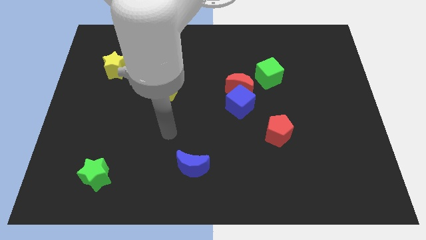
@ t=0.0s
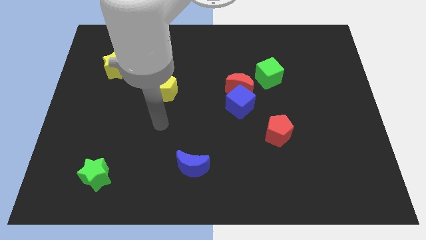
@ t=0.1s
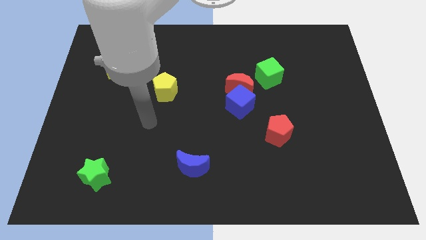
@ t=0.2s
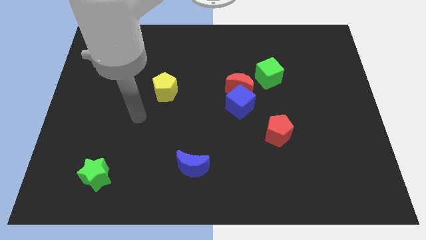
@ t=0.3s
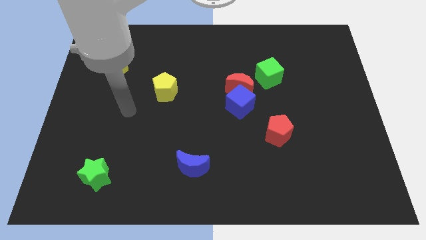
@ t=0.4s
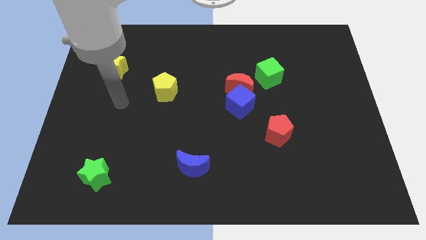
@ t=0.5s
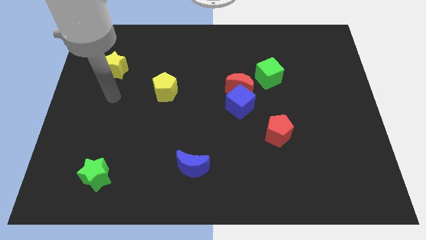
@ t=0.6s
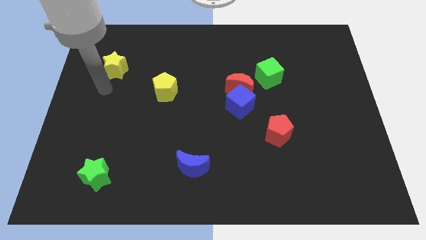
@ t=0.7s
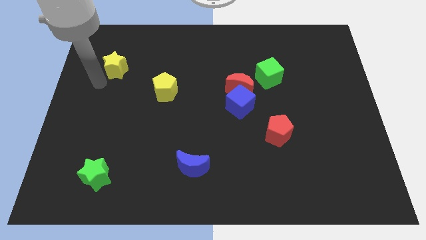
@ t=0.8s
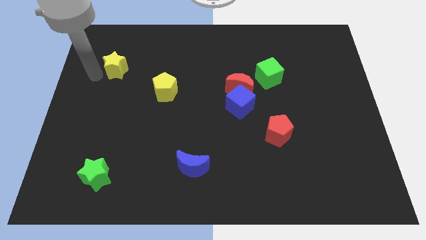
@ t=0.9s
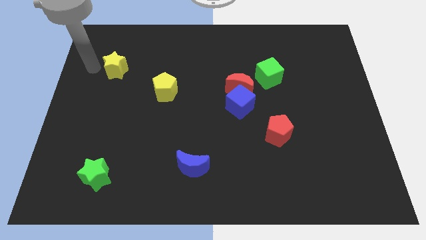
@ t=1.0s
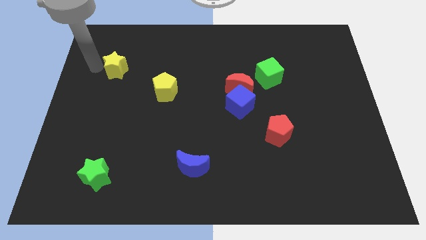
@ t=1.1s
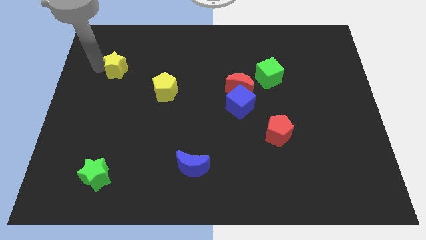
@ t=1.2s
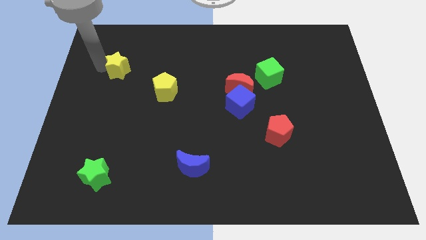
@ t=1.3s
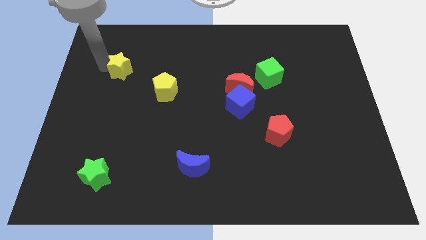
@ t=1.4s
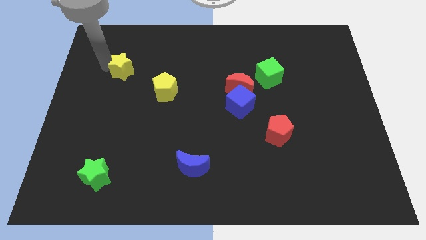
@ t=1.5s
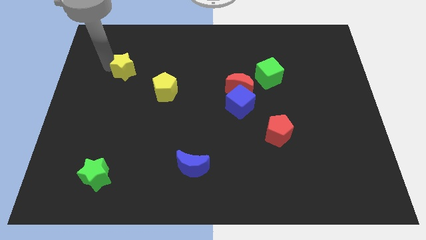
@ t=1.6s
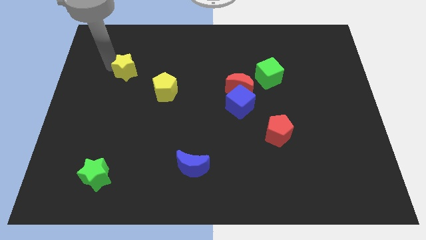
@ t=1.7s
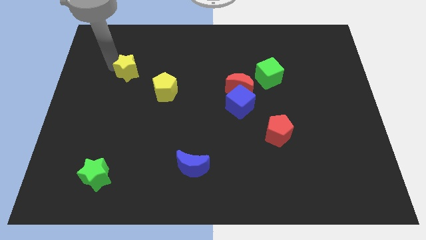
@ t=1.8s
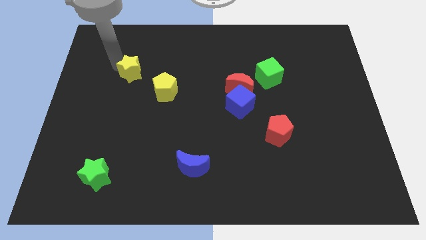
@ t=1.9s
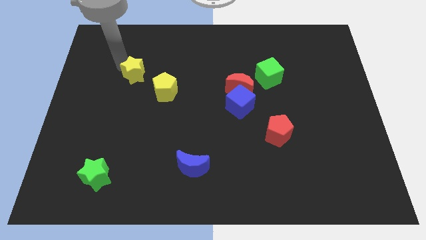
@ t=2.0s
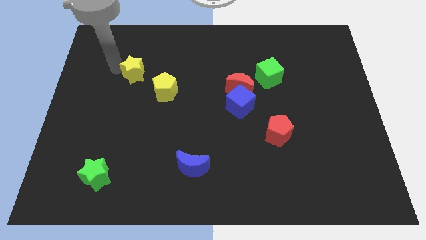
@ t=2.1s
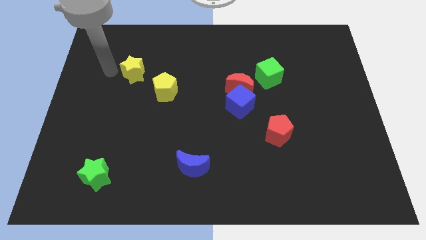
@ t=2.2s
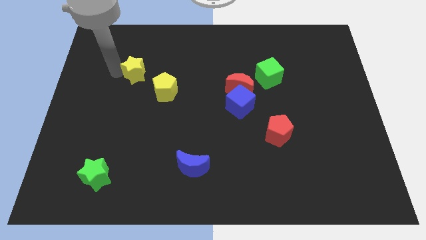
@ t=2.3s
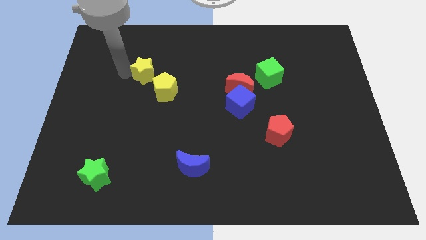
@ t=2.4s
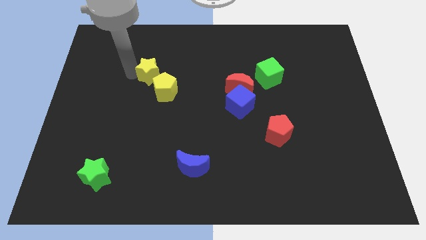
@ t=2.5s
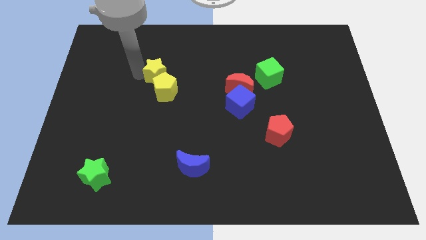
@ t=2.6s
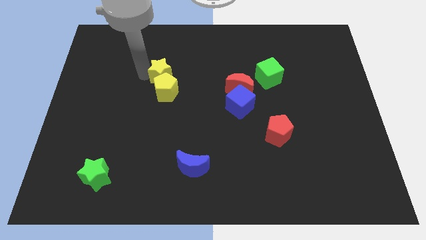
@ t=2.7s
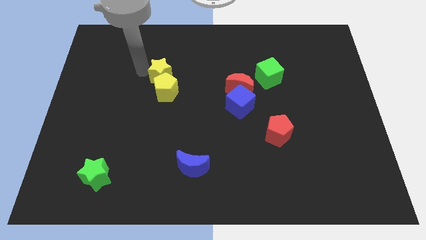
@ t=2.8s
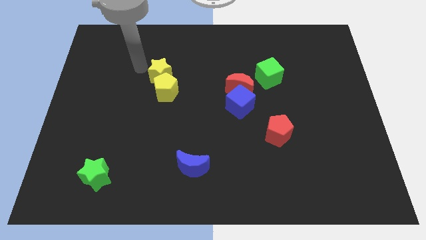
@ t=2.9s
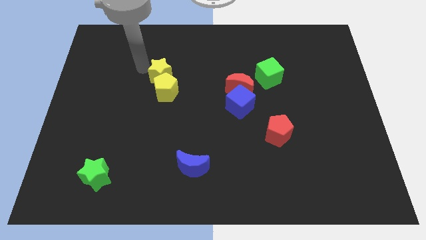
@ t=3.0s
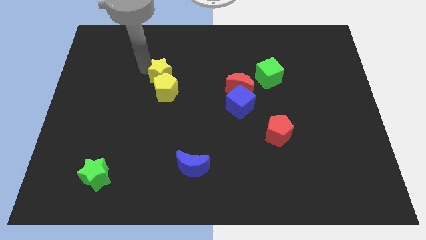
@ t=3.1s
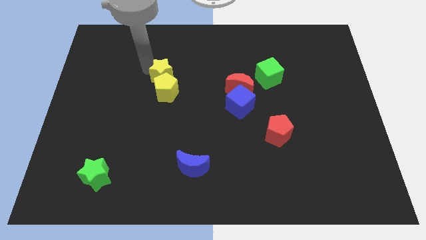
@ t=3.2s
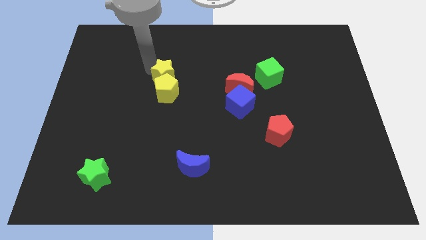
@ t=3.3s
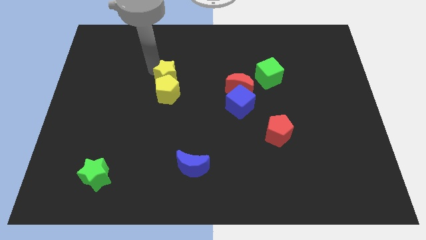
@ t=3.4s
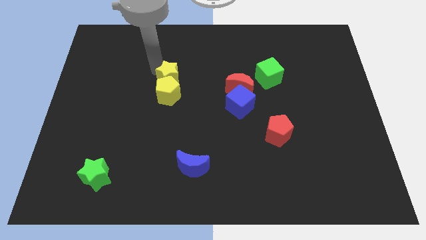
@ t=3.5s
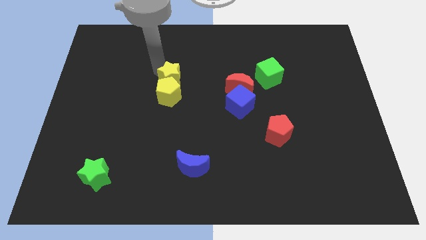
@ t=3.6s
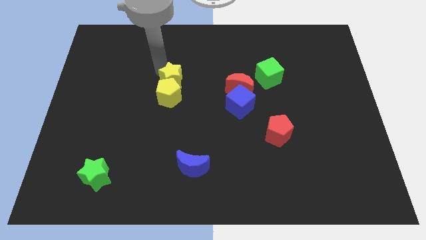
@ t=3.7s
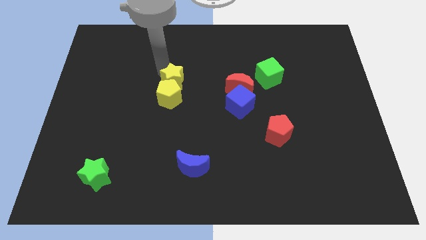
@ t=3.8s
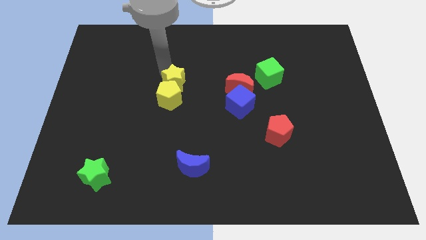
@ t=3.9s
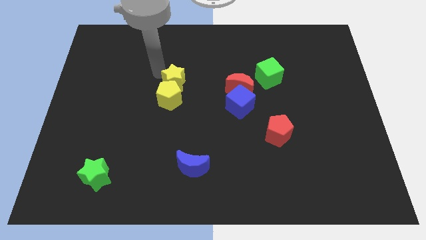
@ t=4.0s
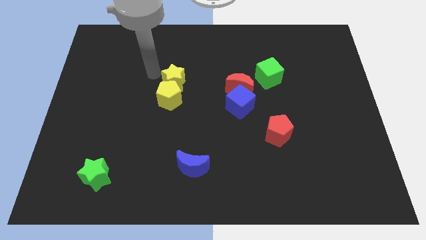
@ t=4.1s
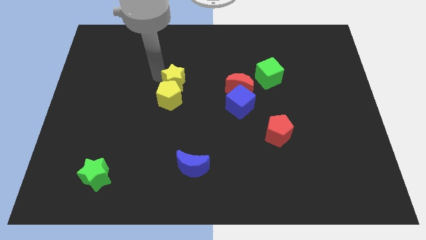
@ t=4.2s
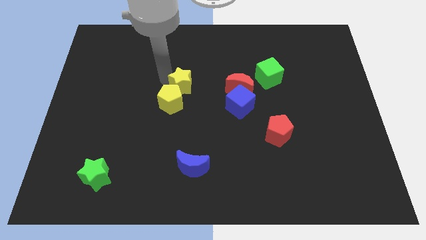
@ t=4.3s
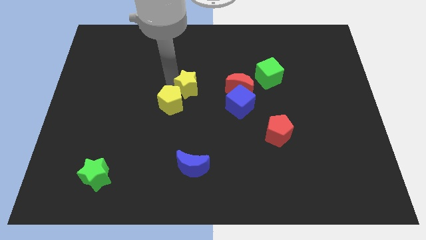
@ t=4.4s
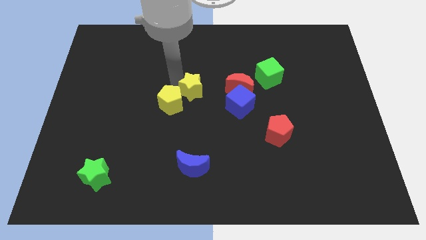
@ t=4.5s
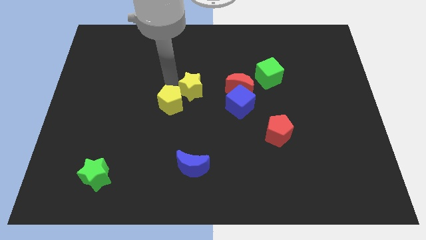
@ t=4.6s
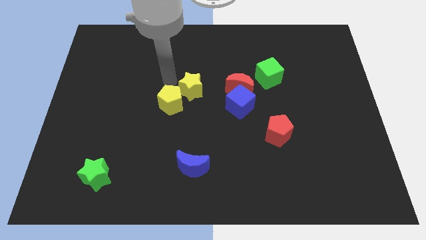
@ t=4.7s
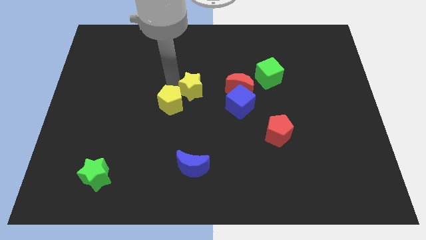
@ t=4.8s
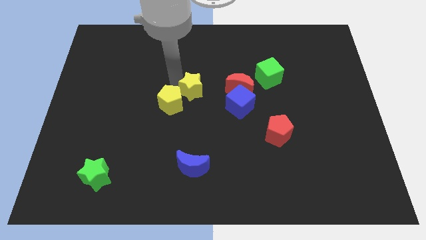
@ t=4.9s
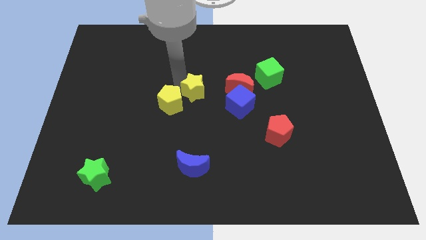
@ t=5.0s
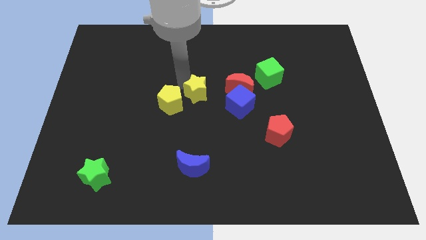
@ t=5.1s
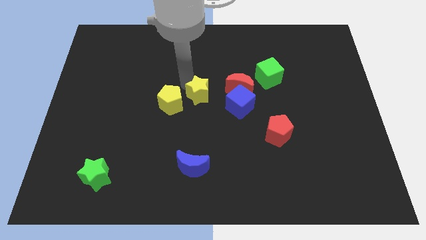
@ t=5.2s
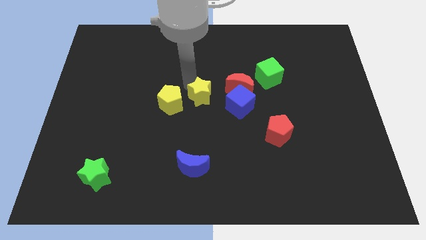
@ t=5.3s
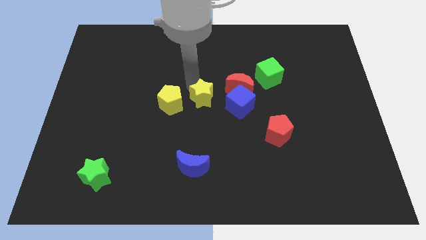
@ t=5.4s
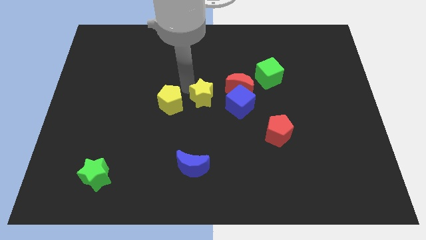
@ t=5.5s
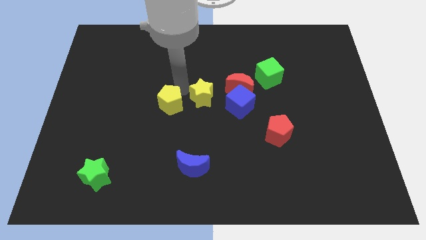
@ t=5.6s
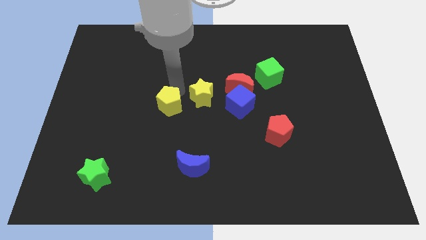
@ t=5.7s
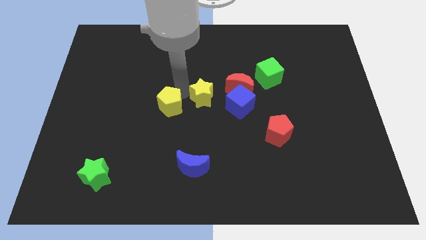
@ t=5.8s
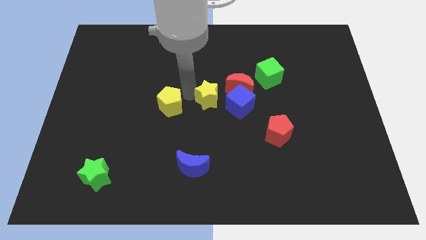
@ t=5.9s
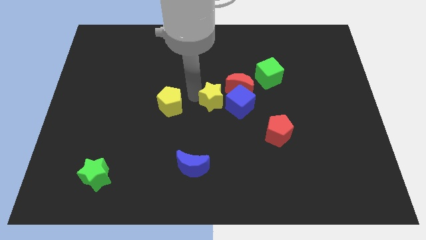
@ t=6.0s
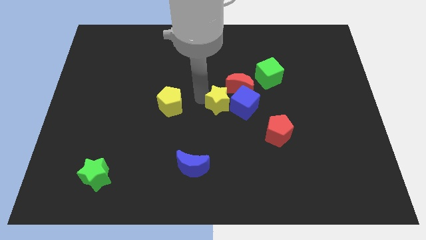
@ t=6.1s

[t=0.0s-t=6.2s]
put the yellow star to the blue cube

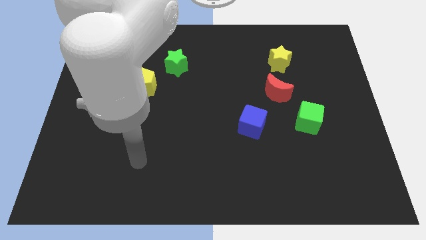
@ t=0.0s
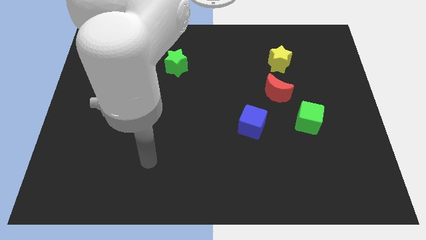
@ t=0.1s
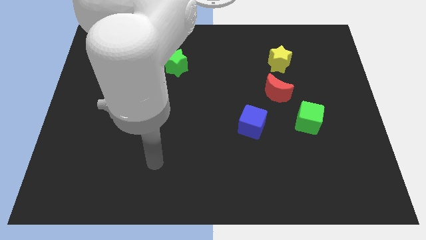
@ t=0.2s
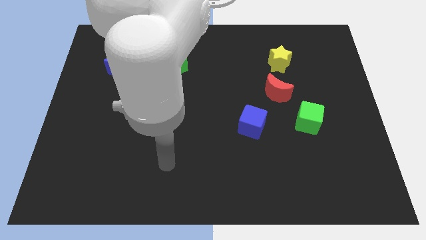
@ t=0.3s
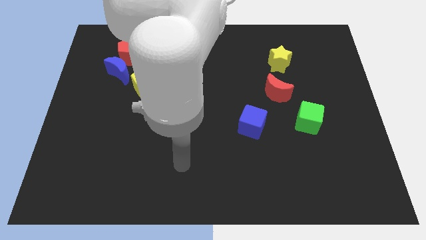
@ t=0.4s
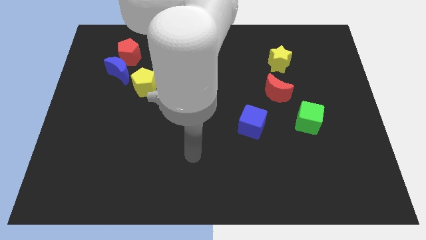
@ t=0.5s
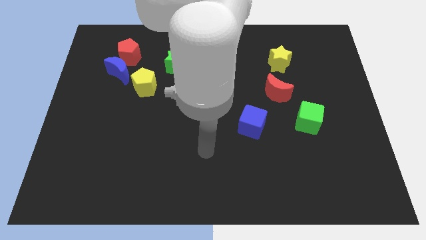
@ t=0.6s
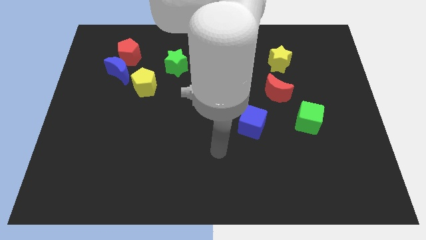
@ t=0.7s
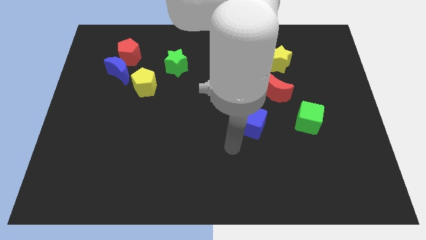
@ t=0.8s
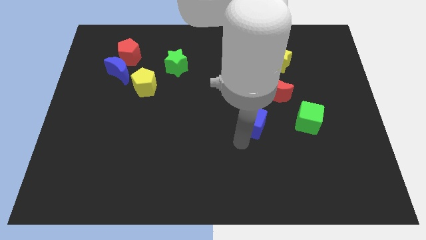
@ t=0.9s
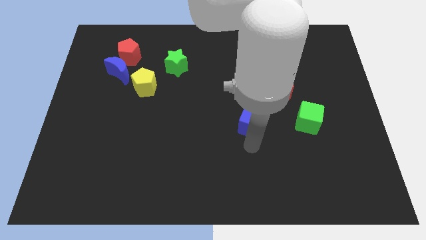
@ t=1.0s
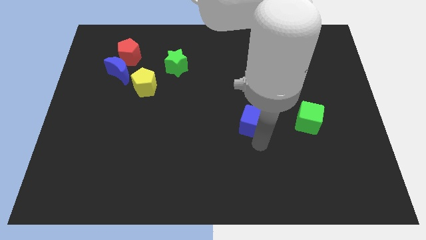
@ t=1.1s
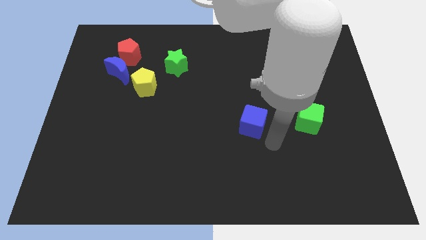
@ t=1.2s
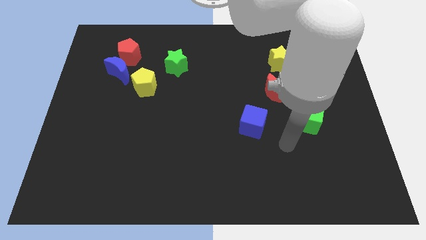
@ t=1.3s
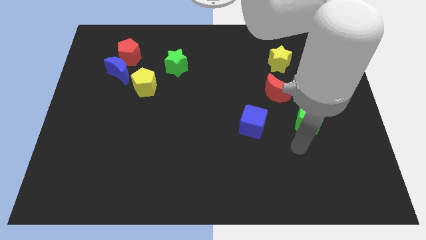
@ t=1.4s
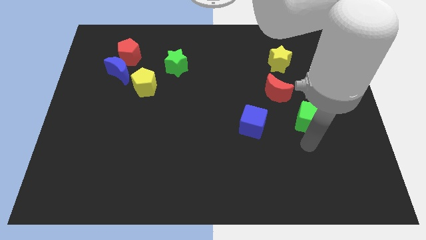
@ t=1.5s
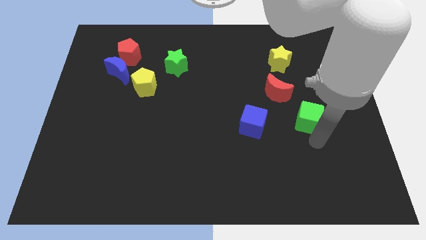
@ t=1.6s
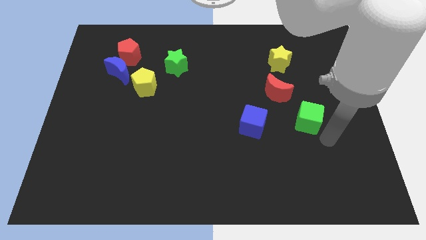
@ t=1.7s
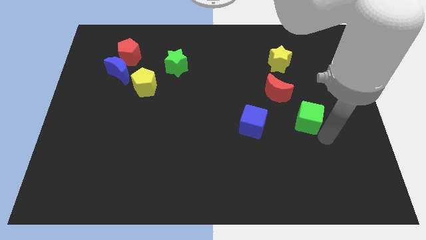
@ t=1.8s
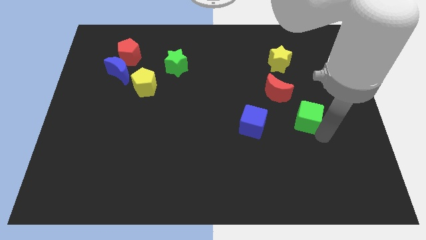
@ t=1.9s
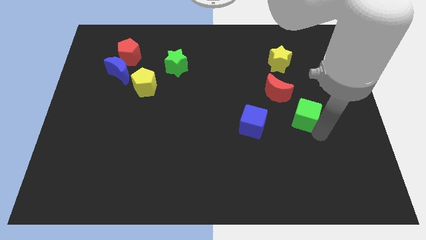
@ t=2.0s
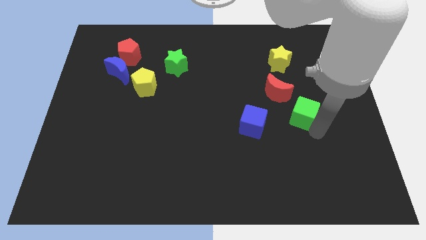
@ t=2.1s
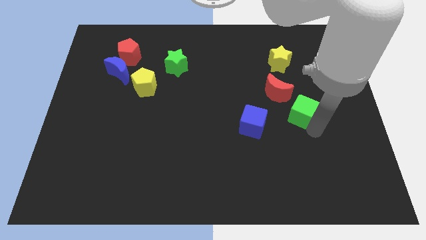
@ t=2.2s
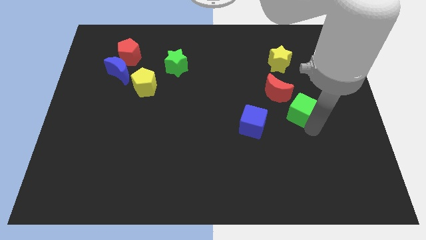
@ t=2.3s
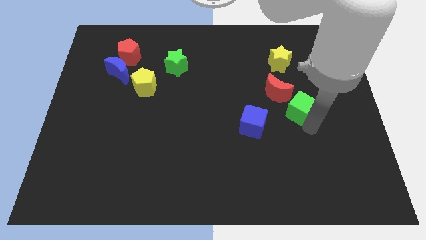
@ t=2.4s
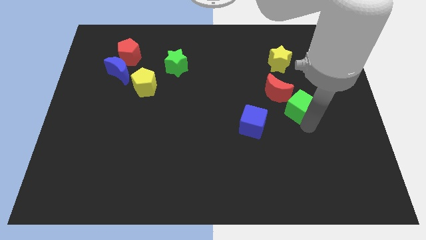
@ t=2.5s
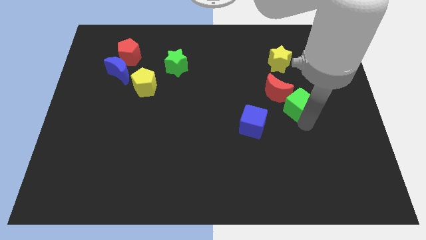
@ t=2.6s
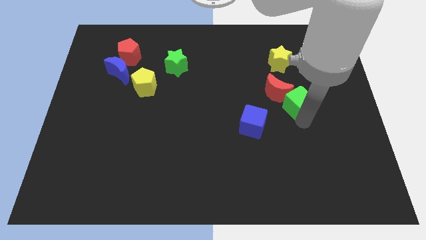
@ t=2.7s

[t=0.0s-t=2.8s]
move the green cube close to the red moon
